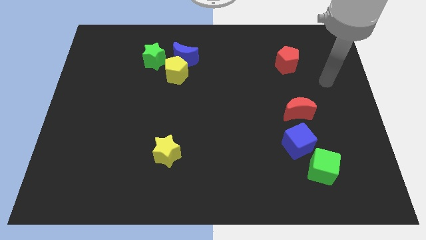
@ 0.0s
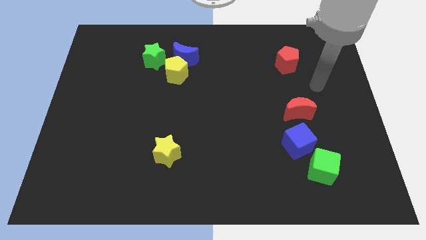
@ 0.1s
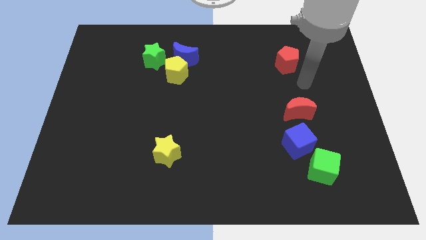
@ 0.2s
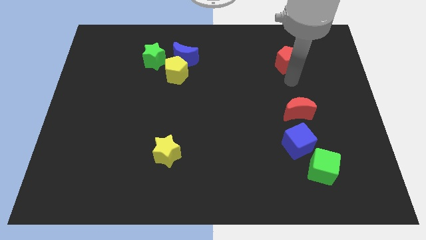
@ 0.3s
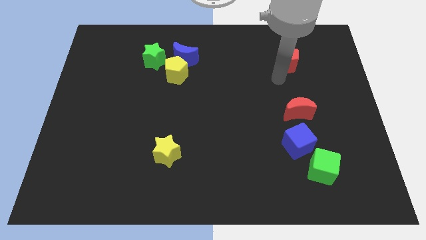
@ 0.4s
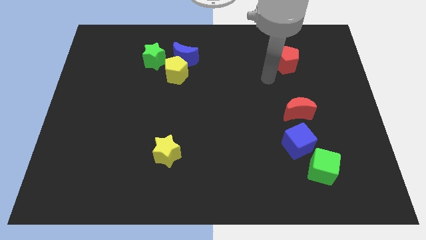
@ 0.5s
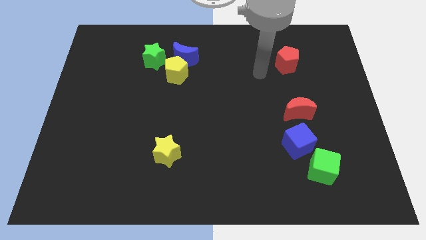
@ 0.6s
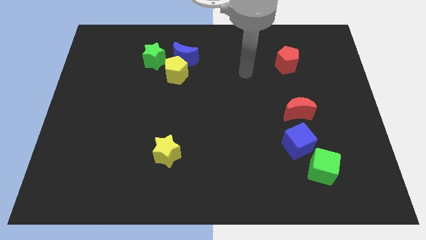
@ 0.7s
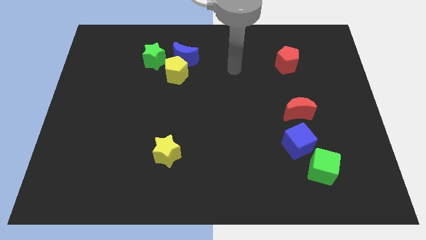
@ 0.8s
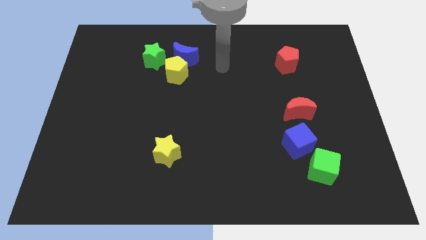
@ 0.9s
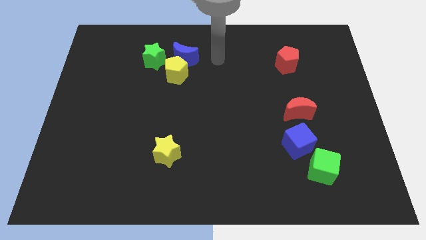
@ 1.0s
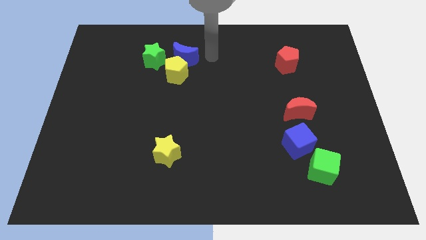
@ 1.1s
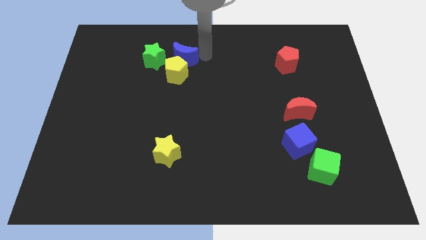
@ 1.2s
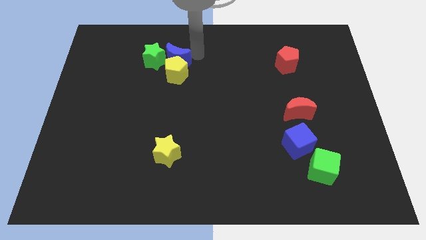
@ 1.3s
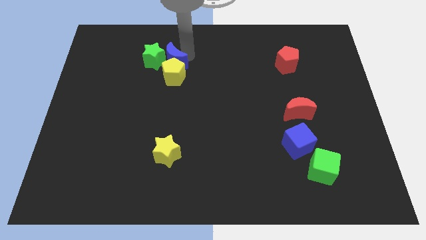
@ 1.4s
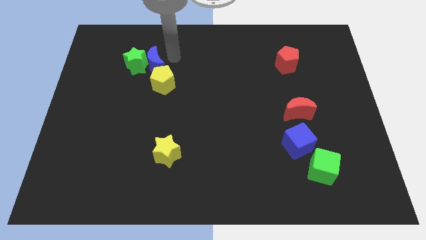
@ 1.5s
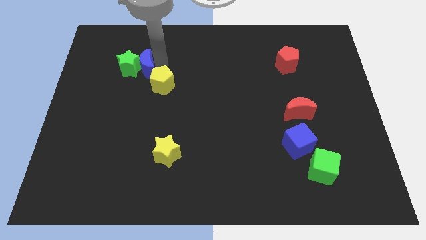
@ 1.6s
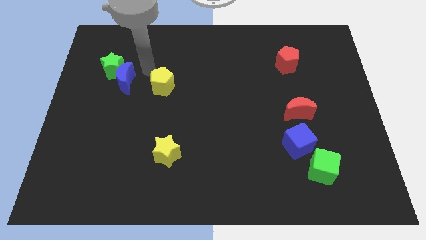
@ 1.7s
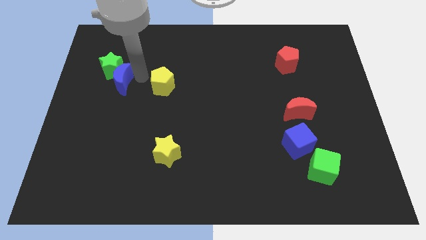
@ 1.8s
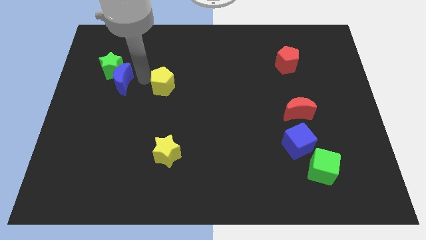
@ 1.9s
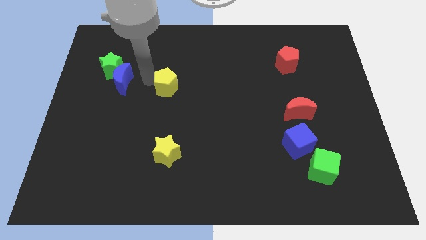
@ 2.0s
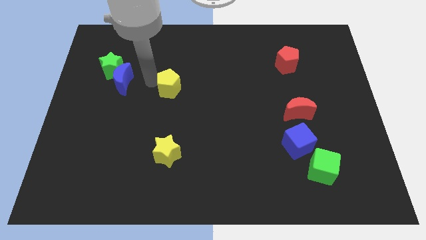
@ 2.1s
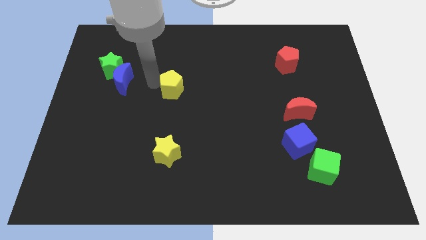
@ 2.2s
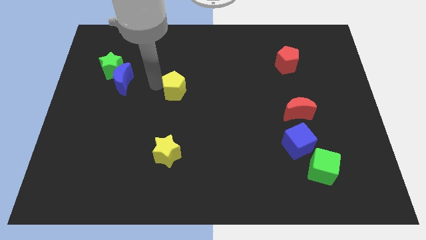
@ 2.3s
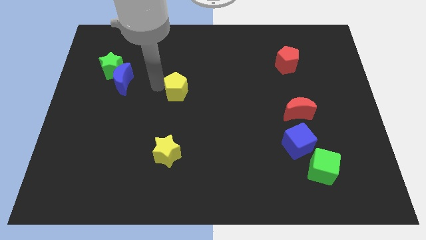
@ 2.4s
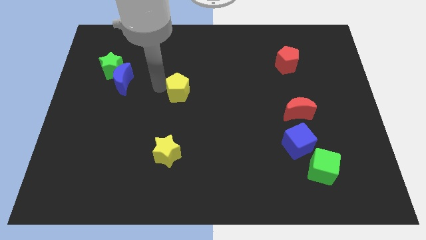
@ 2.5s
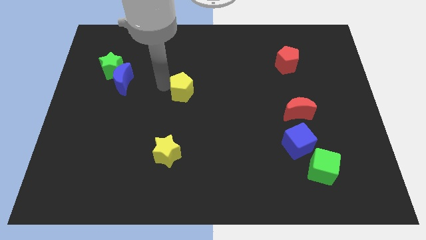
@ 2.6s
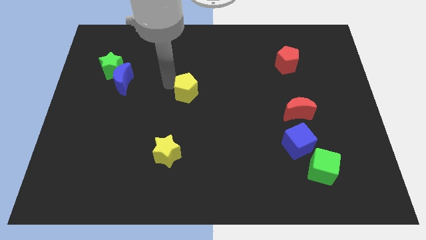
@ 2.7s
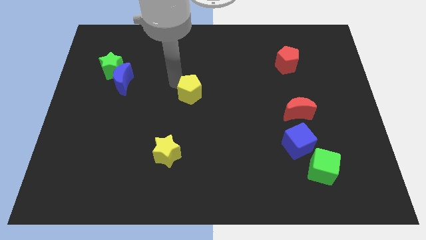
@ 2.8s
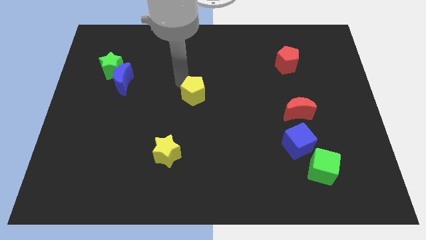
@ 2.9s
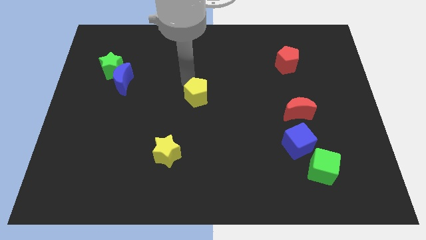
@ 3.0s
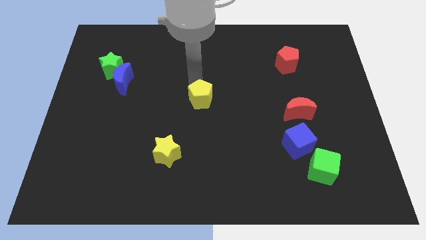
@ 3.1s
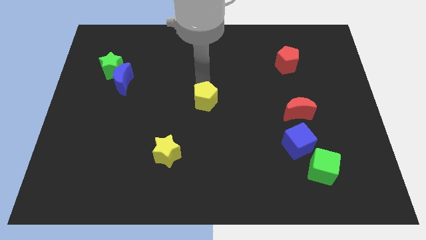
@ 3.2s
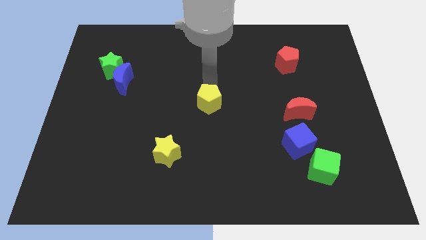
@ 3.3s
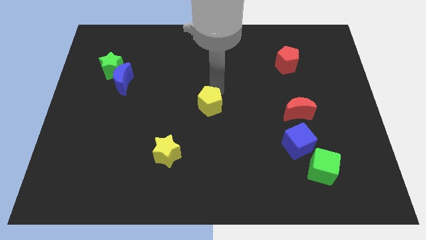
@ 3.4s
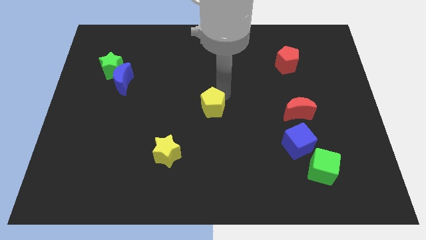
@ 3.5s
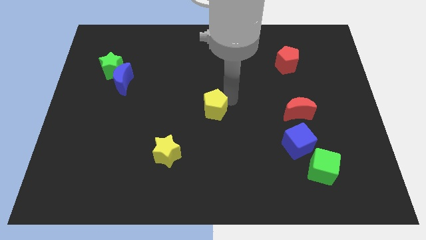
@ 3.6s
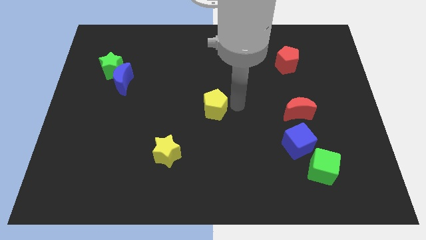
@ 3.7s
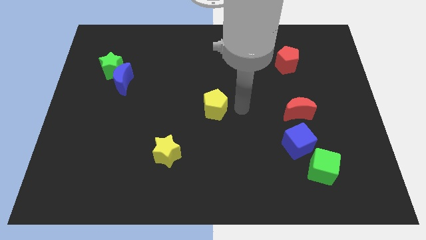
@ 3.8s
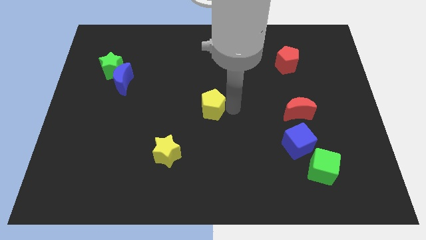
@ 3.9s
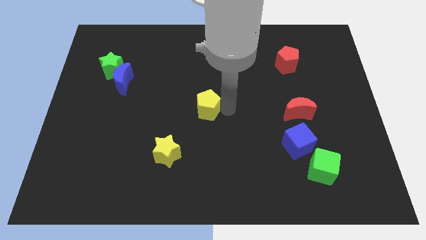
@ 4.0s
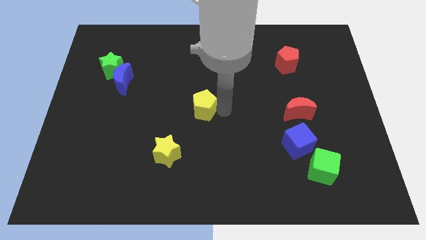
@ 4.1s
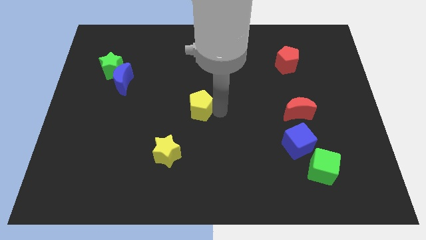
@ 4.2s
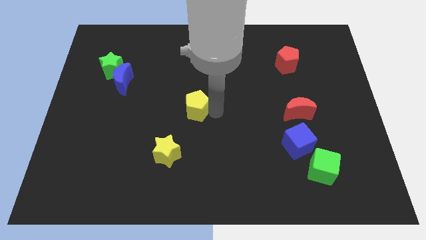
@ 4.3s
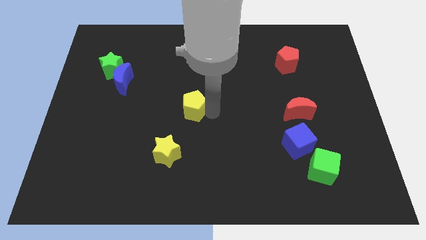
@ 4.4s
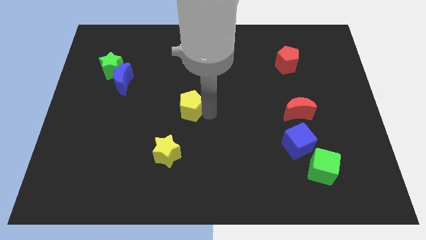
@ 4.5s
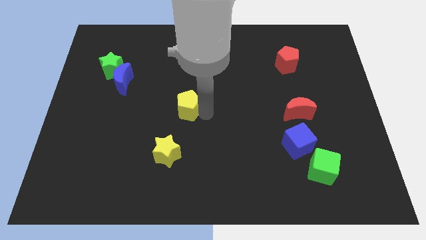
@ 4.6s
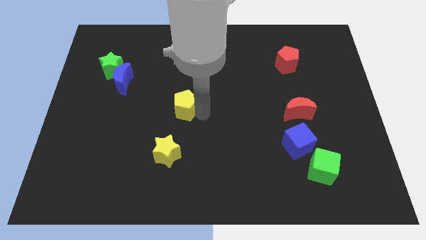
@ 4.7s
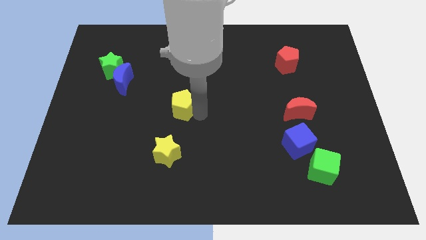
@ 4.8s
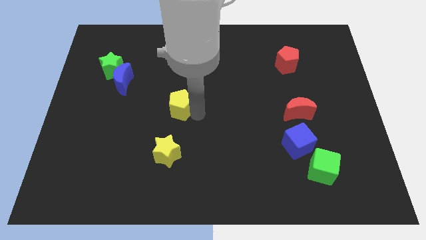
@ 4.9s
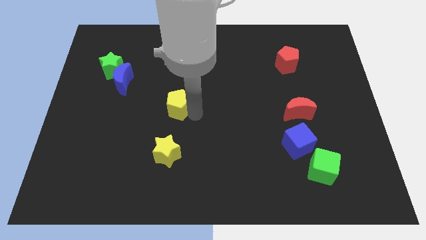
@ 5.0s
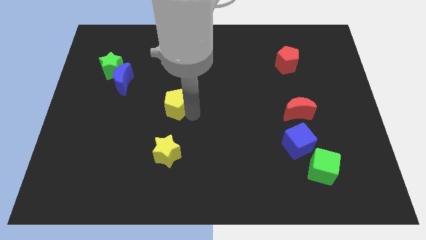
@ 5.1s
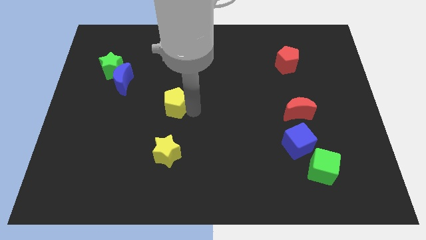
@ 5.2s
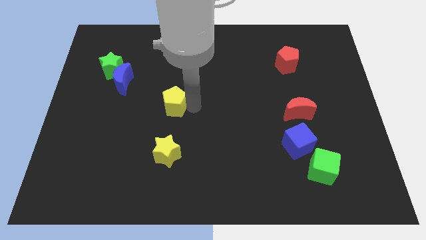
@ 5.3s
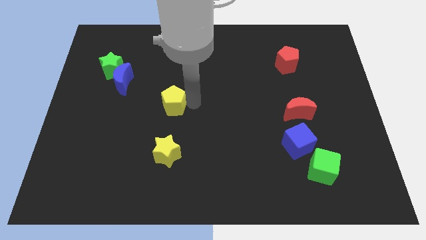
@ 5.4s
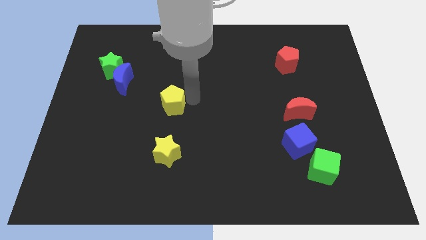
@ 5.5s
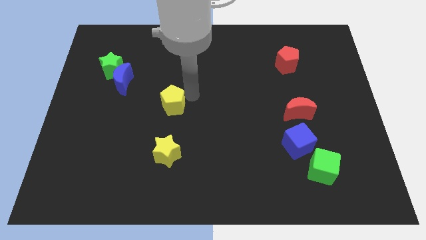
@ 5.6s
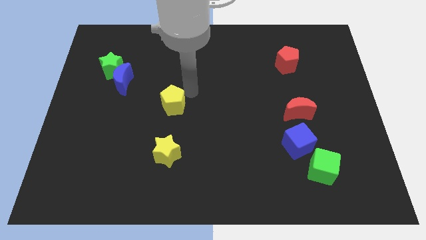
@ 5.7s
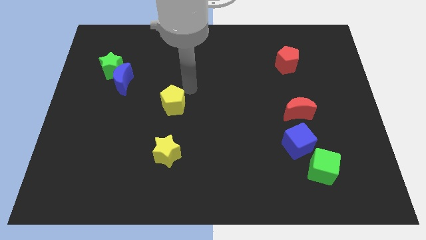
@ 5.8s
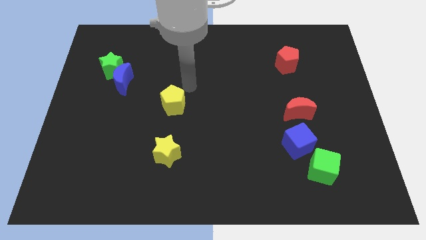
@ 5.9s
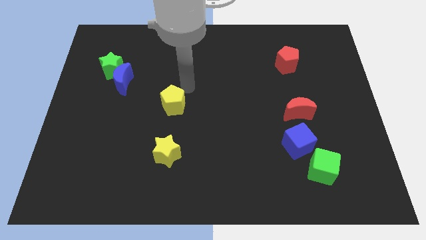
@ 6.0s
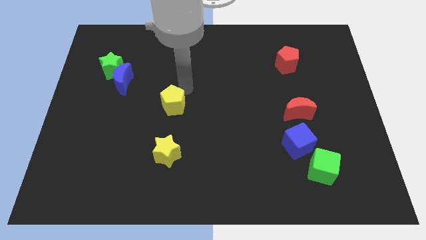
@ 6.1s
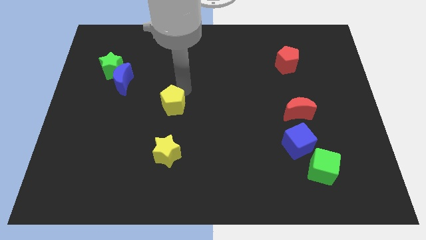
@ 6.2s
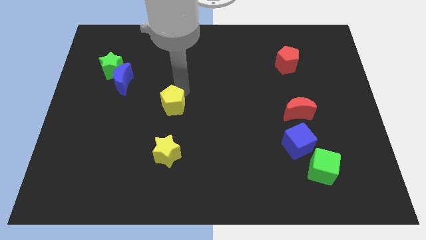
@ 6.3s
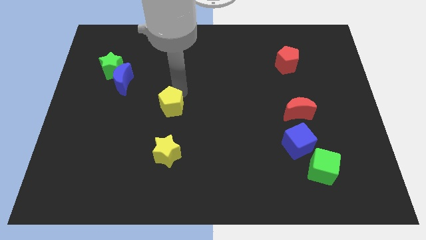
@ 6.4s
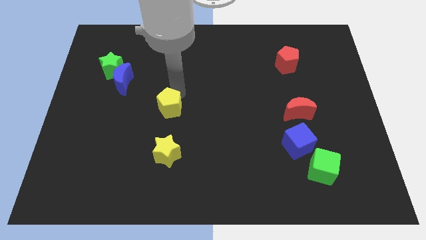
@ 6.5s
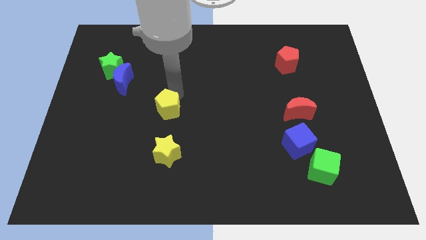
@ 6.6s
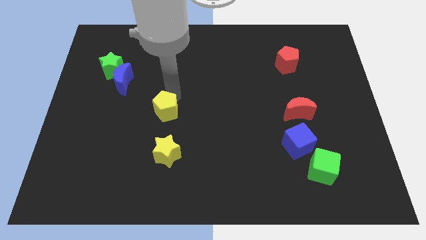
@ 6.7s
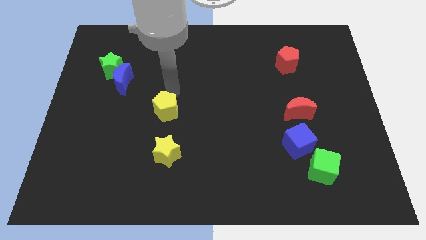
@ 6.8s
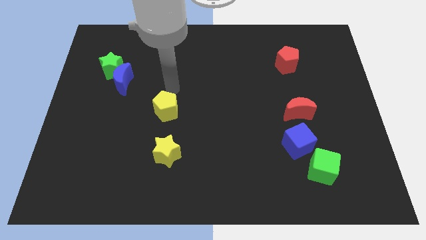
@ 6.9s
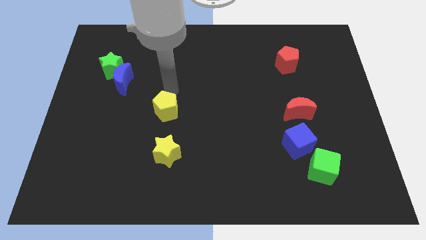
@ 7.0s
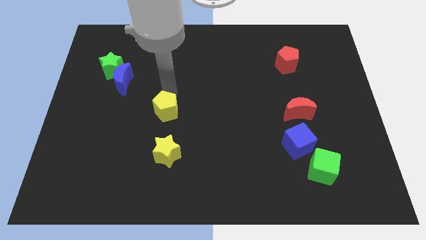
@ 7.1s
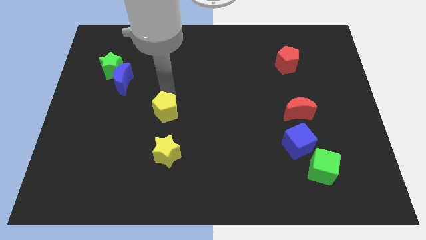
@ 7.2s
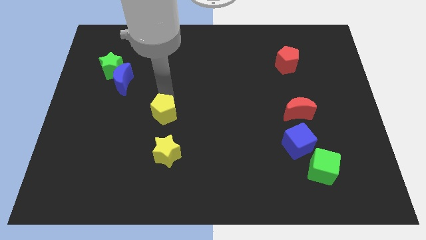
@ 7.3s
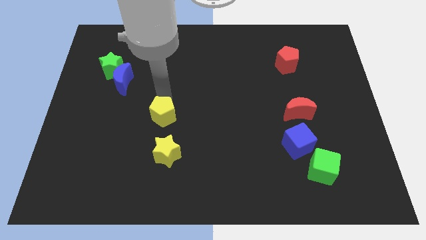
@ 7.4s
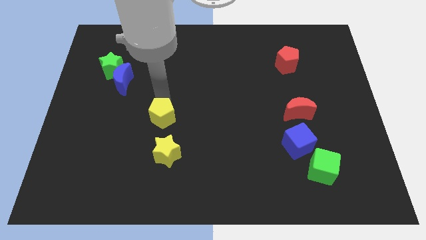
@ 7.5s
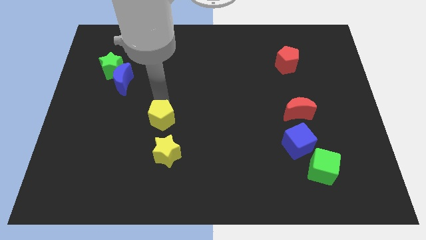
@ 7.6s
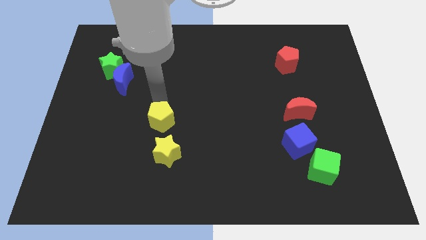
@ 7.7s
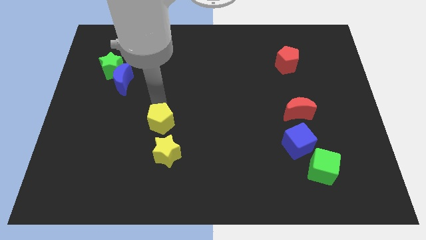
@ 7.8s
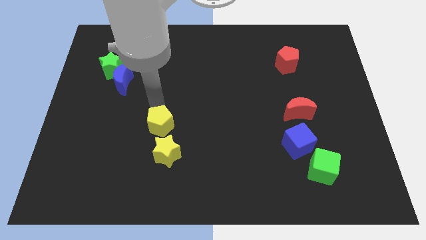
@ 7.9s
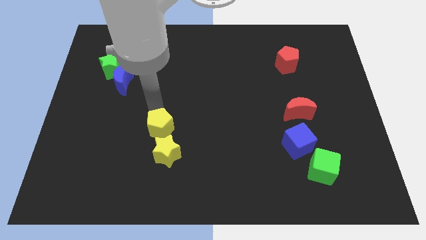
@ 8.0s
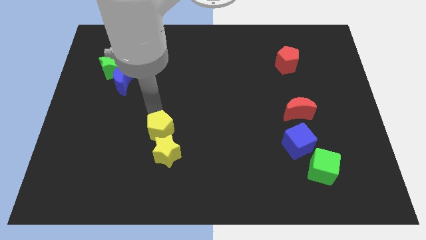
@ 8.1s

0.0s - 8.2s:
push the yellow pentagon next to the yellow star
